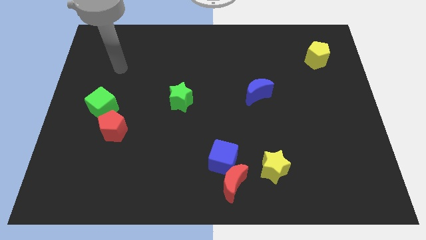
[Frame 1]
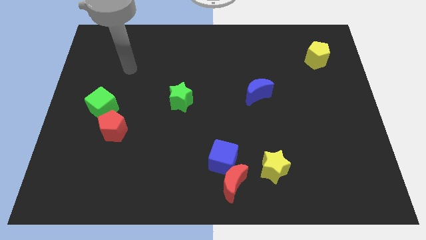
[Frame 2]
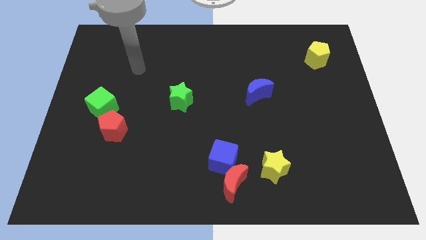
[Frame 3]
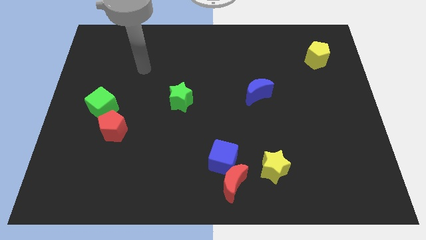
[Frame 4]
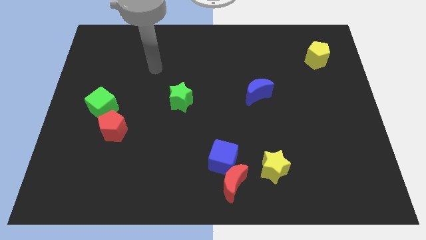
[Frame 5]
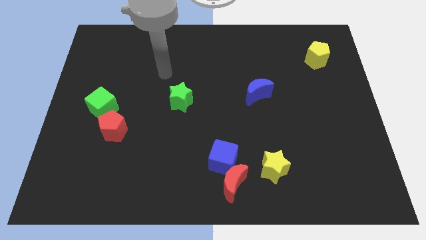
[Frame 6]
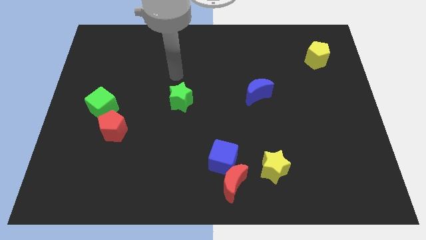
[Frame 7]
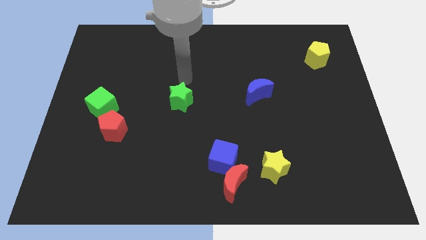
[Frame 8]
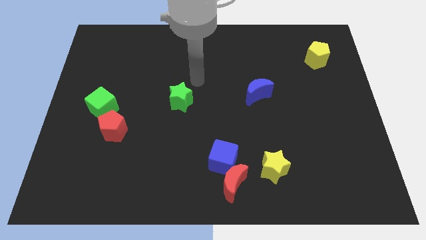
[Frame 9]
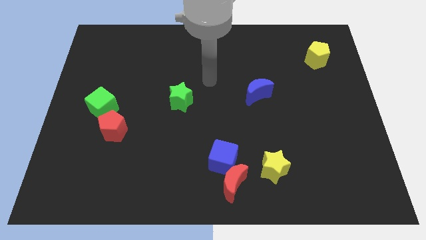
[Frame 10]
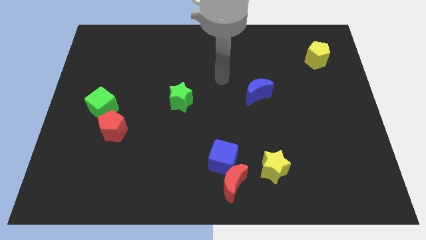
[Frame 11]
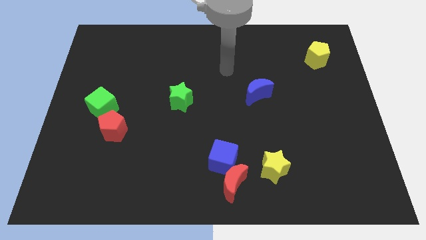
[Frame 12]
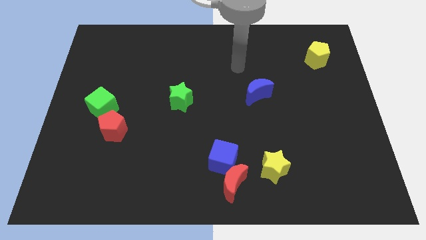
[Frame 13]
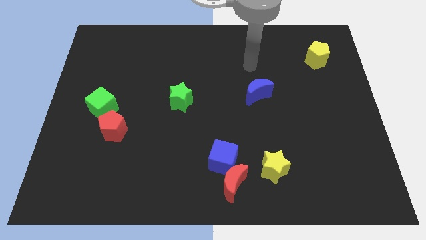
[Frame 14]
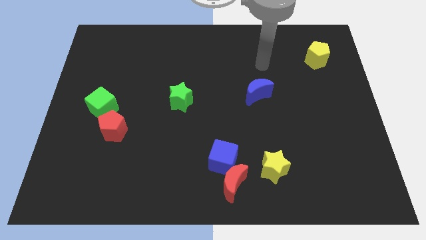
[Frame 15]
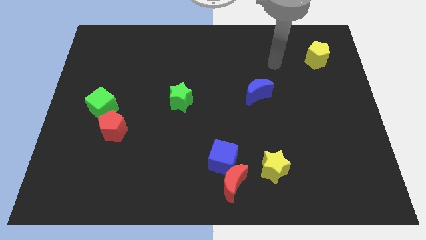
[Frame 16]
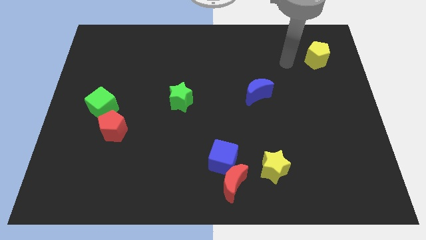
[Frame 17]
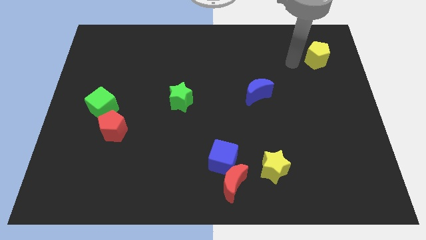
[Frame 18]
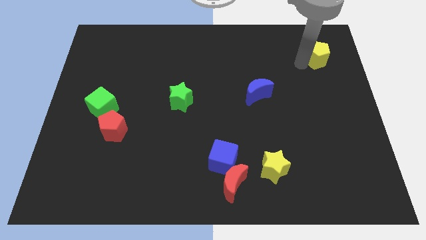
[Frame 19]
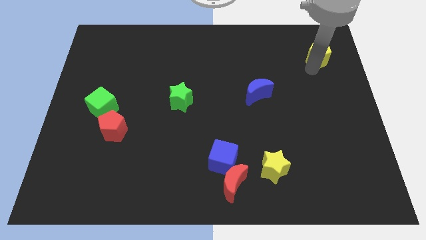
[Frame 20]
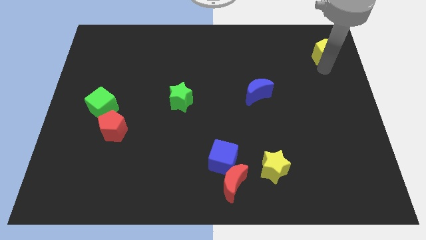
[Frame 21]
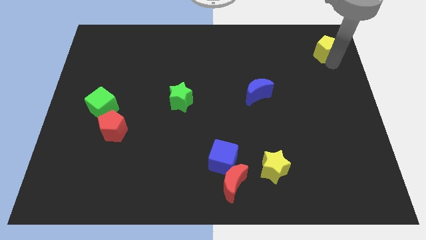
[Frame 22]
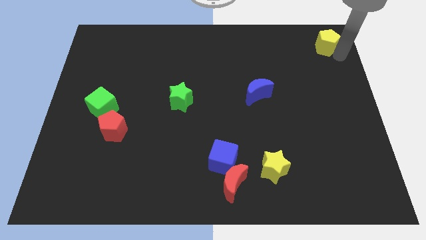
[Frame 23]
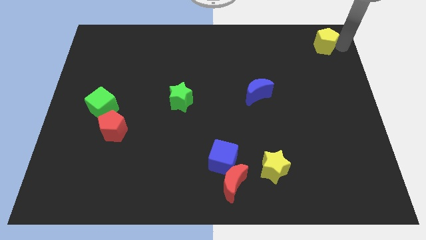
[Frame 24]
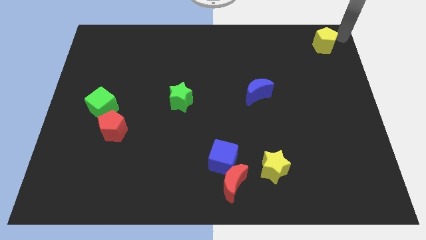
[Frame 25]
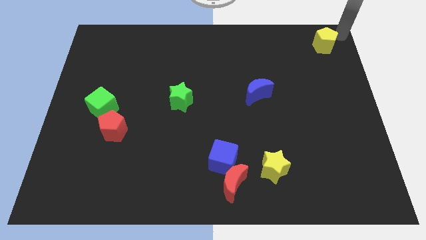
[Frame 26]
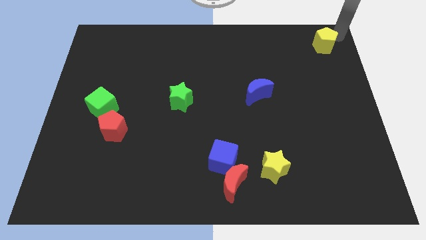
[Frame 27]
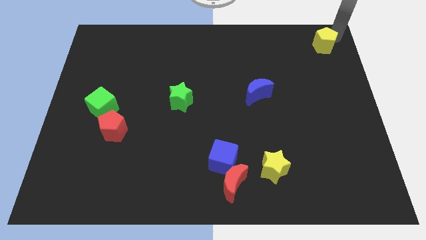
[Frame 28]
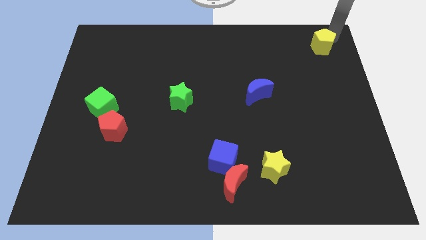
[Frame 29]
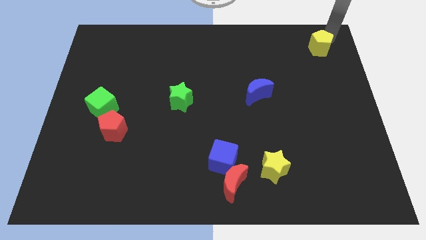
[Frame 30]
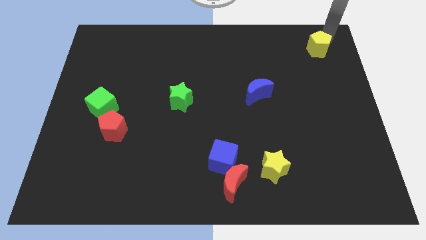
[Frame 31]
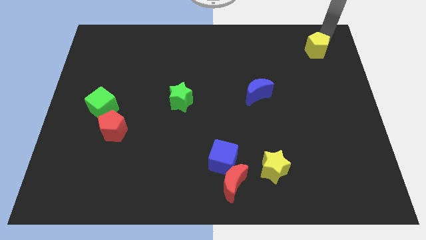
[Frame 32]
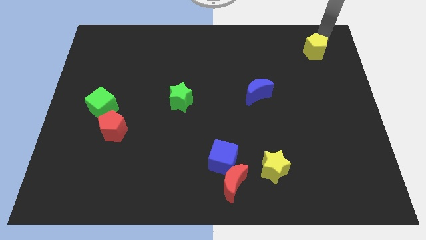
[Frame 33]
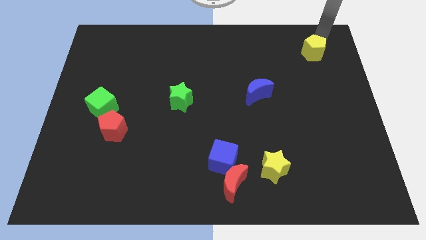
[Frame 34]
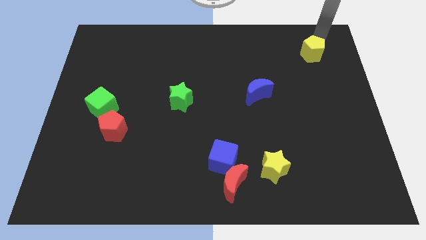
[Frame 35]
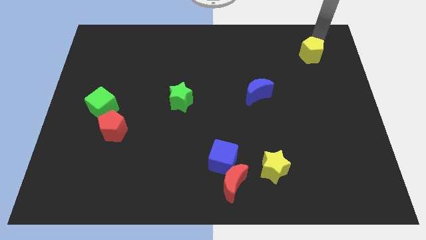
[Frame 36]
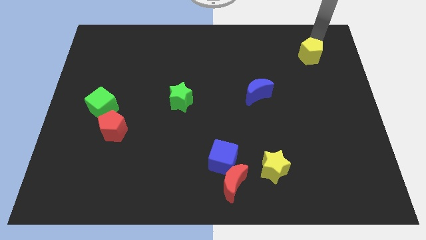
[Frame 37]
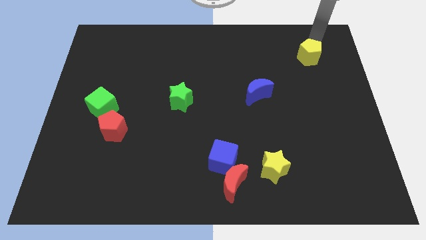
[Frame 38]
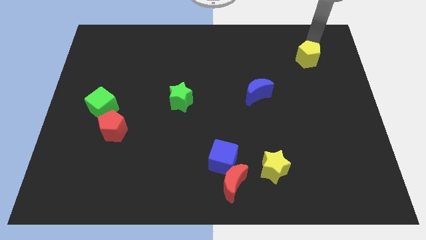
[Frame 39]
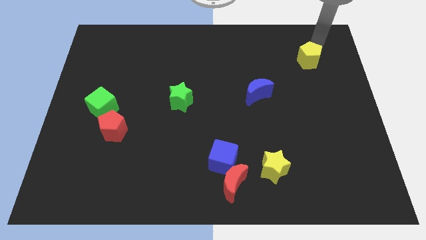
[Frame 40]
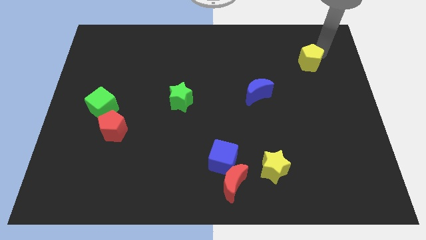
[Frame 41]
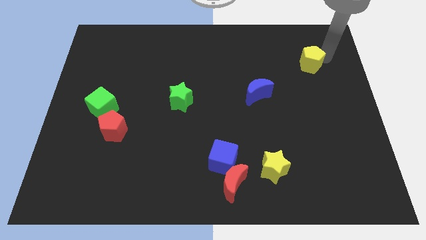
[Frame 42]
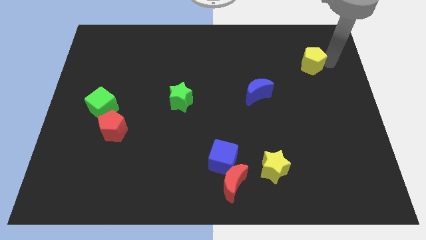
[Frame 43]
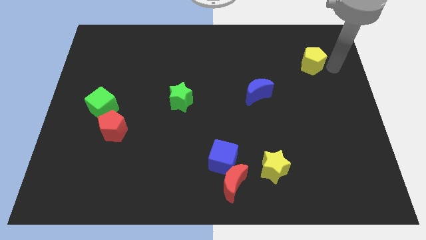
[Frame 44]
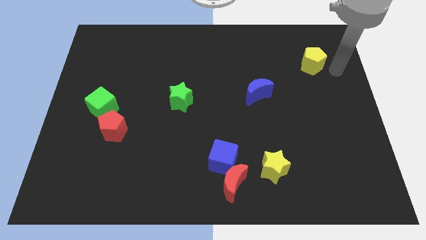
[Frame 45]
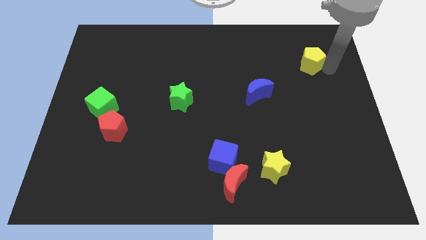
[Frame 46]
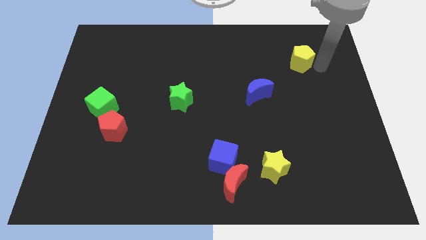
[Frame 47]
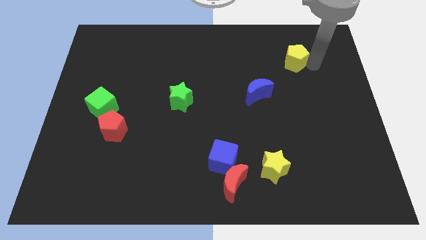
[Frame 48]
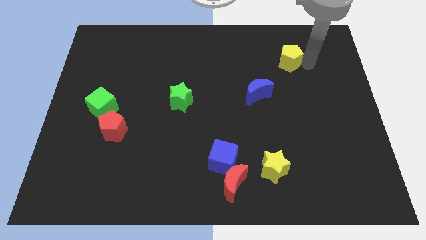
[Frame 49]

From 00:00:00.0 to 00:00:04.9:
slide the yellow pentagon a bit to the left

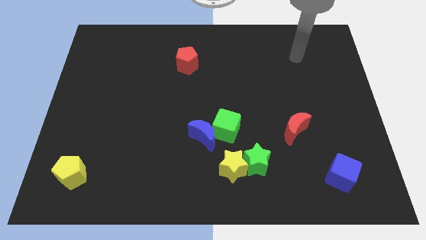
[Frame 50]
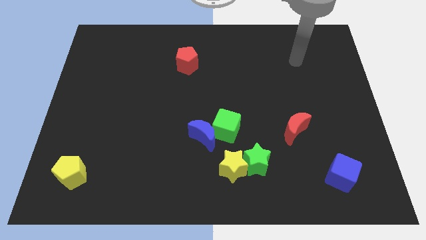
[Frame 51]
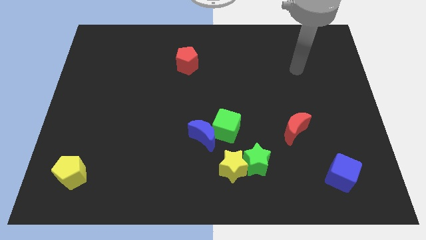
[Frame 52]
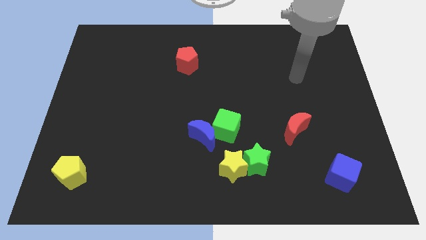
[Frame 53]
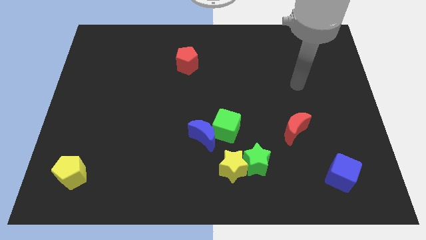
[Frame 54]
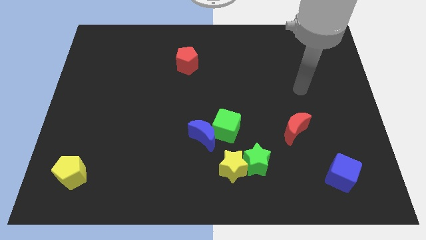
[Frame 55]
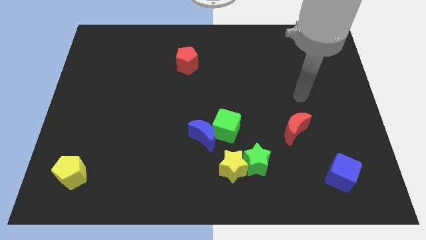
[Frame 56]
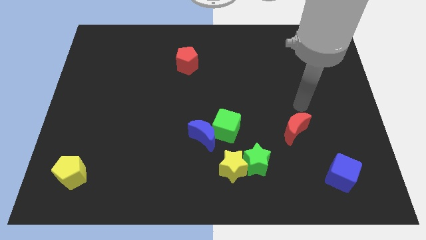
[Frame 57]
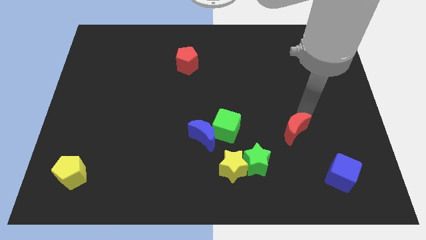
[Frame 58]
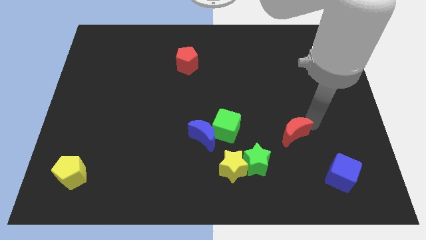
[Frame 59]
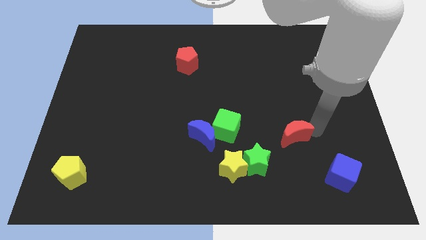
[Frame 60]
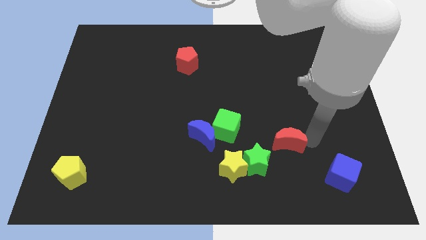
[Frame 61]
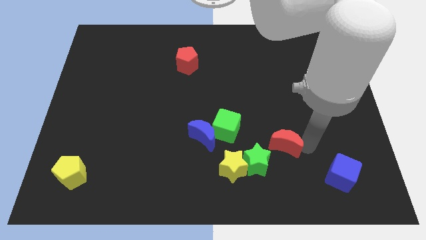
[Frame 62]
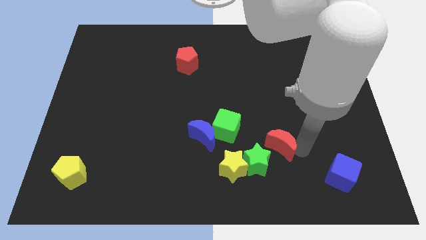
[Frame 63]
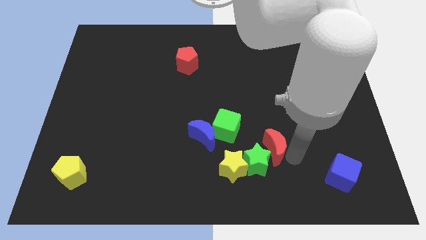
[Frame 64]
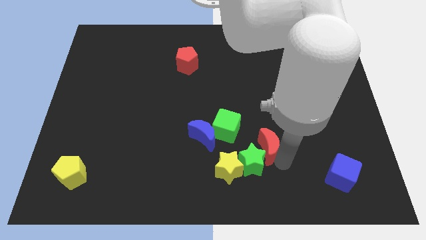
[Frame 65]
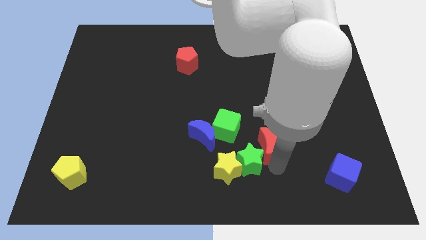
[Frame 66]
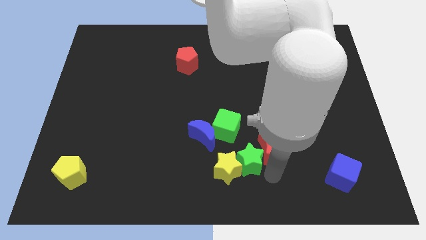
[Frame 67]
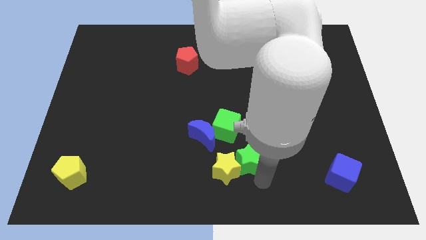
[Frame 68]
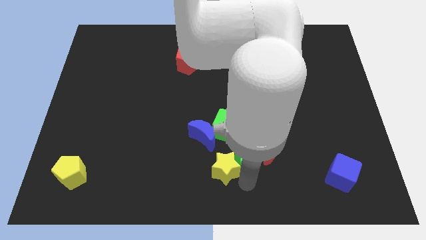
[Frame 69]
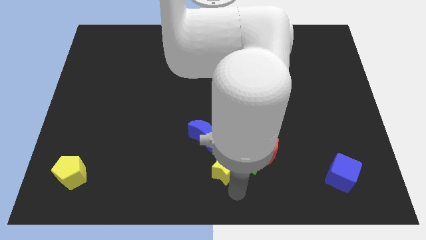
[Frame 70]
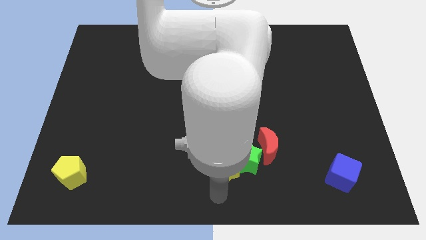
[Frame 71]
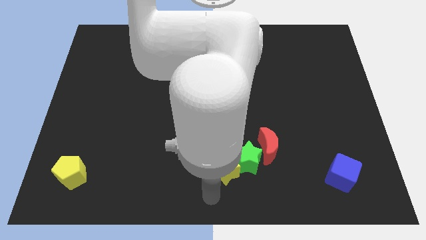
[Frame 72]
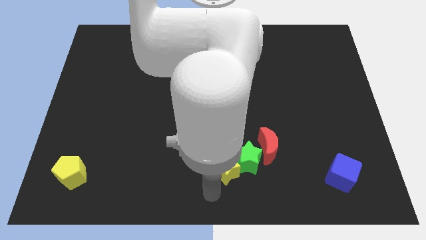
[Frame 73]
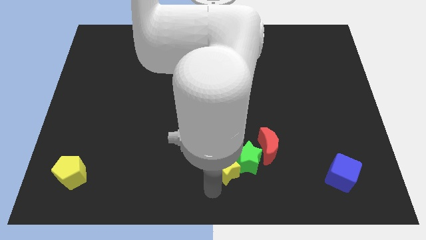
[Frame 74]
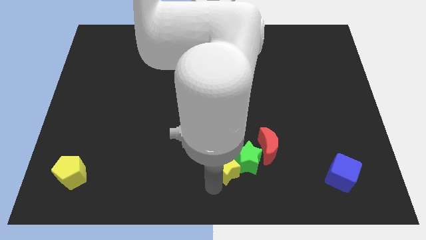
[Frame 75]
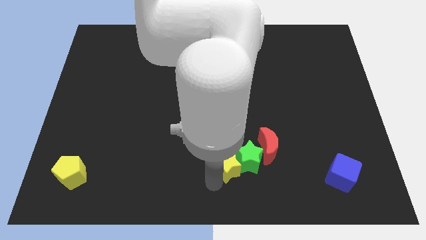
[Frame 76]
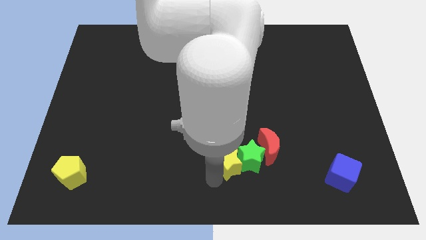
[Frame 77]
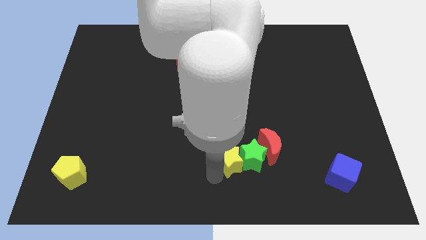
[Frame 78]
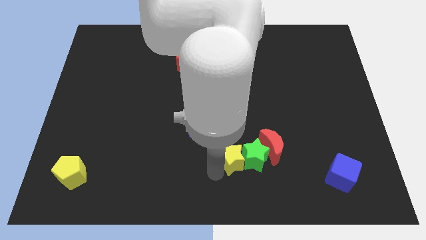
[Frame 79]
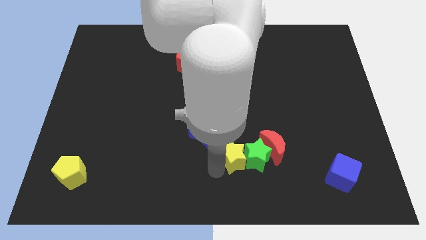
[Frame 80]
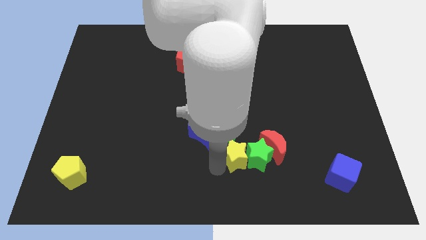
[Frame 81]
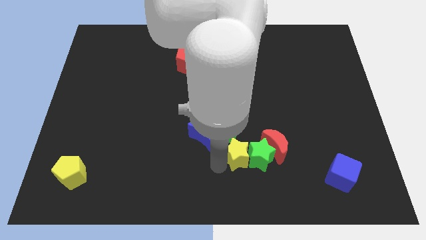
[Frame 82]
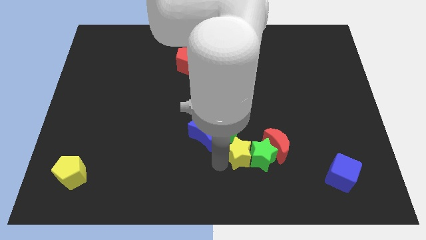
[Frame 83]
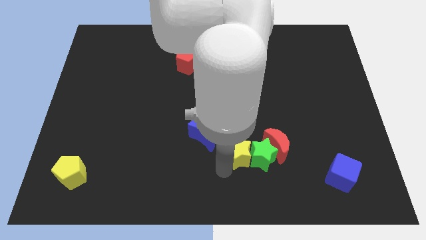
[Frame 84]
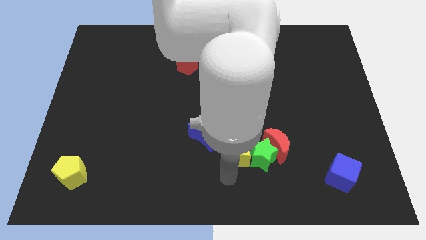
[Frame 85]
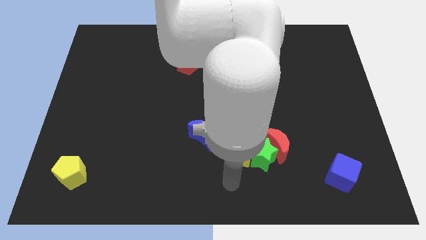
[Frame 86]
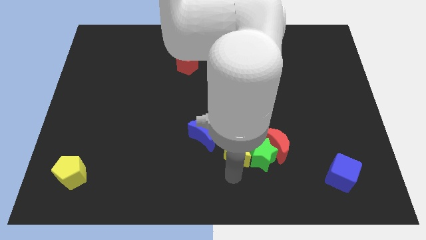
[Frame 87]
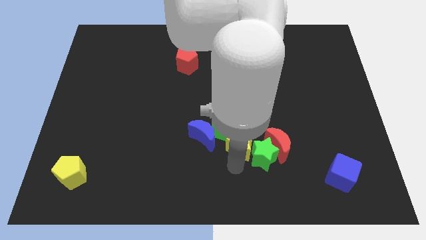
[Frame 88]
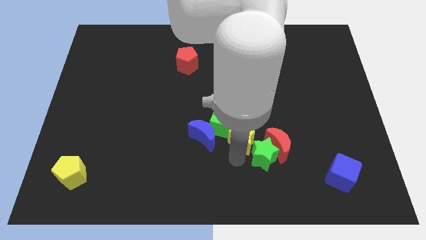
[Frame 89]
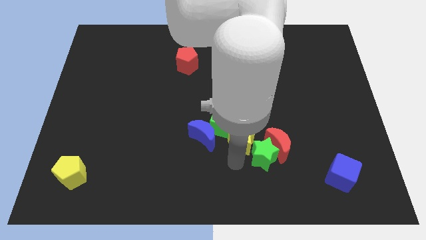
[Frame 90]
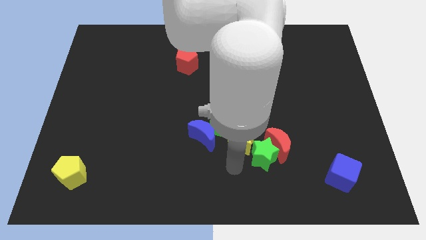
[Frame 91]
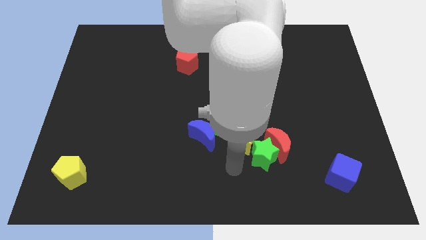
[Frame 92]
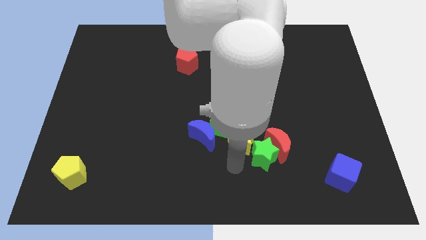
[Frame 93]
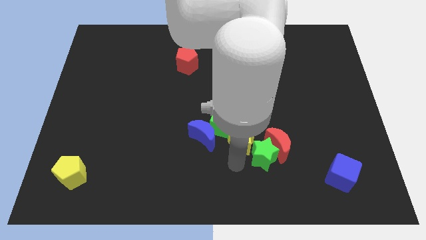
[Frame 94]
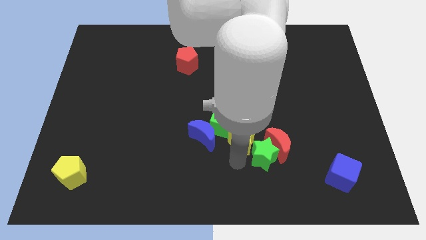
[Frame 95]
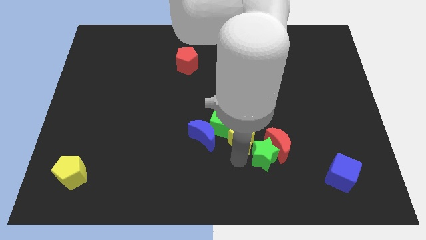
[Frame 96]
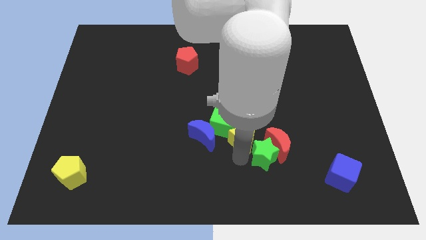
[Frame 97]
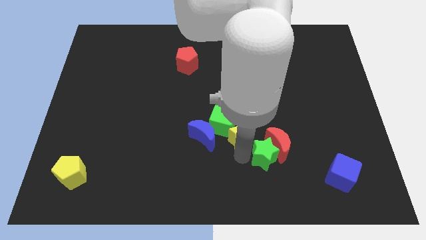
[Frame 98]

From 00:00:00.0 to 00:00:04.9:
slide the yellow star upwards a little
